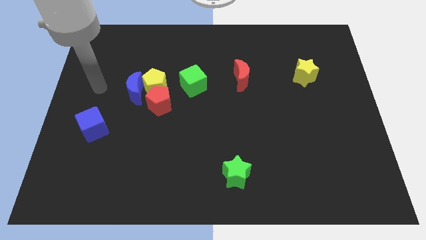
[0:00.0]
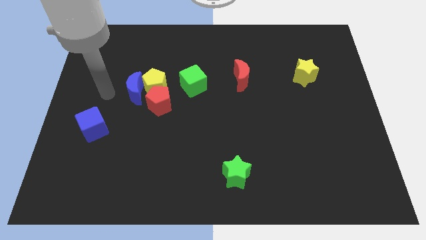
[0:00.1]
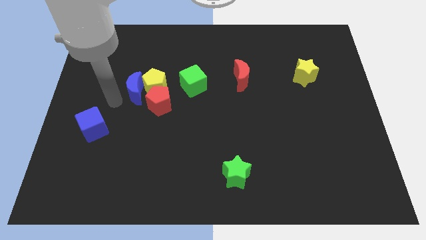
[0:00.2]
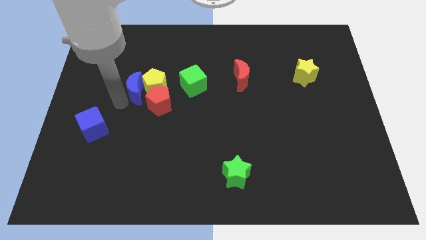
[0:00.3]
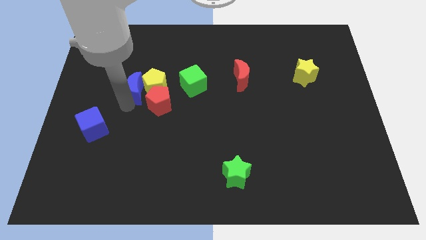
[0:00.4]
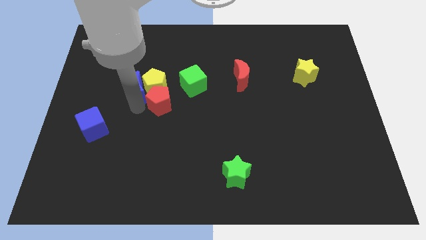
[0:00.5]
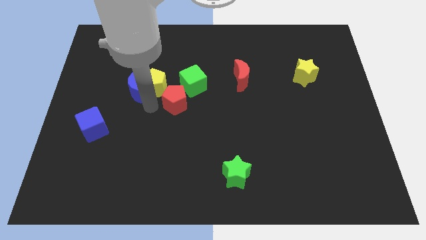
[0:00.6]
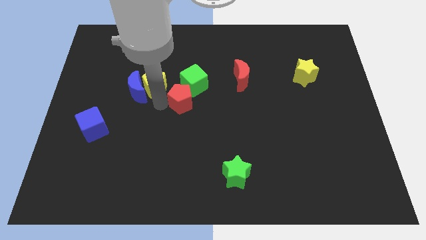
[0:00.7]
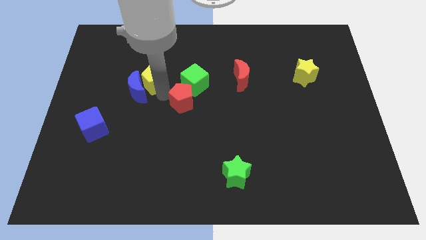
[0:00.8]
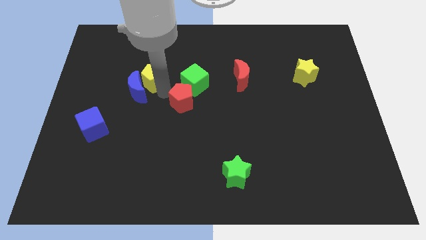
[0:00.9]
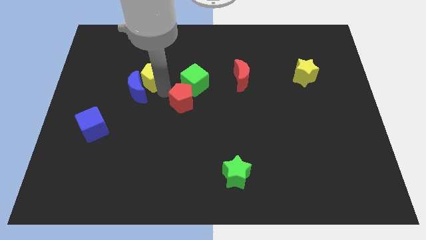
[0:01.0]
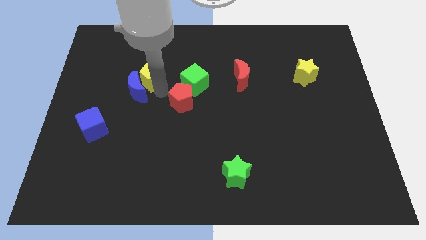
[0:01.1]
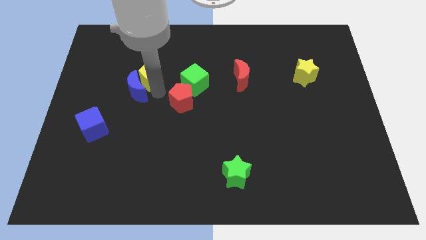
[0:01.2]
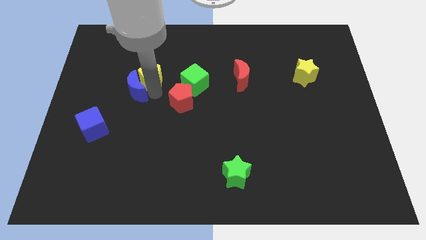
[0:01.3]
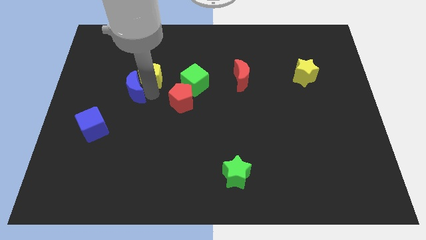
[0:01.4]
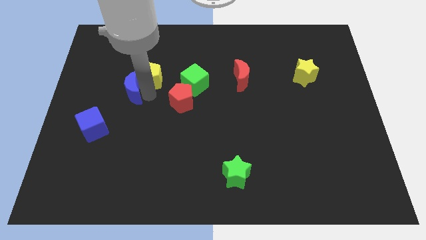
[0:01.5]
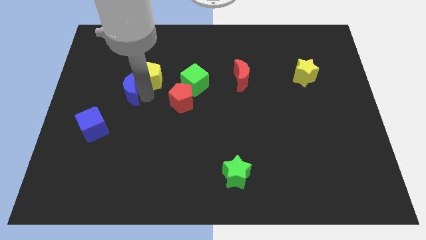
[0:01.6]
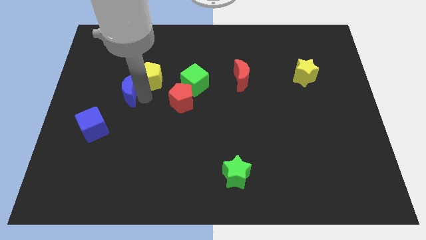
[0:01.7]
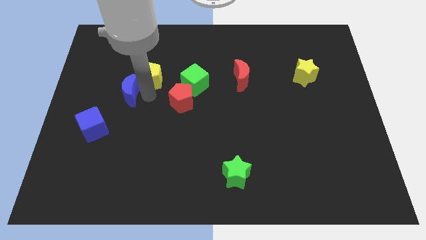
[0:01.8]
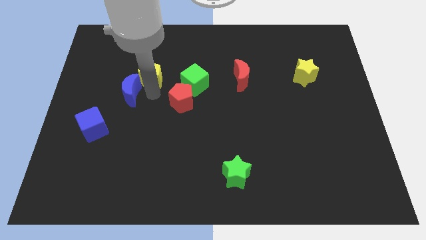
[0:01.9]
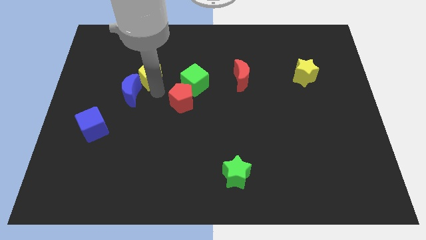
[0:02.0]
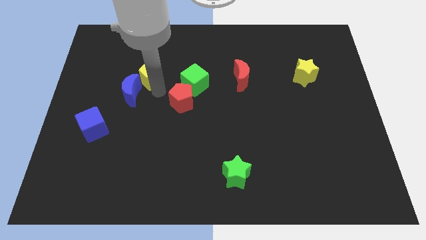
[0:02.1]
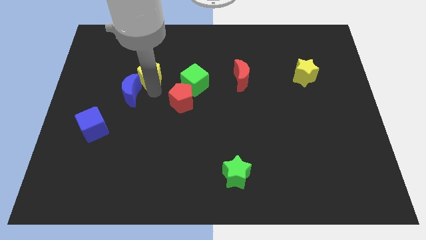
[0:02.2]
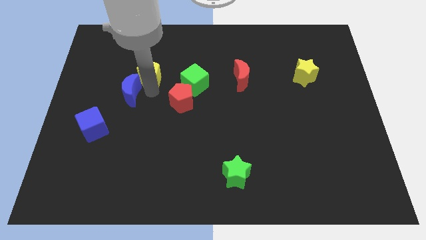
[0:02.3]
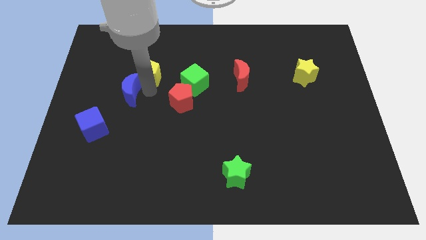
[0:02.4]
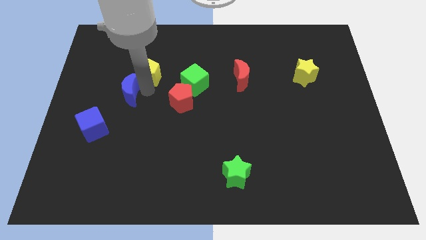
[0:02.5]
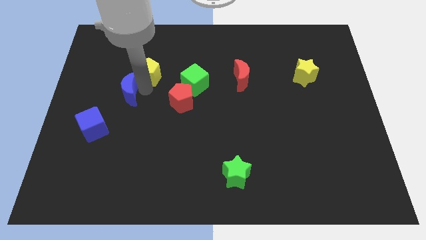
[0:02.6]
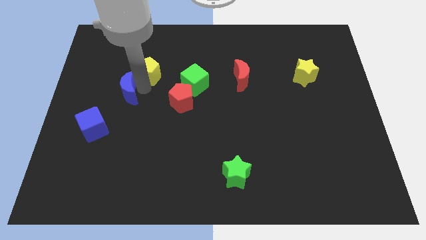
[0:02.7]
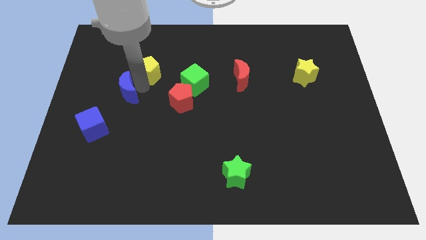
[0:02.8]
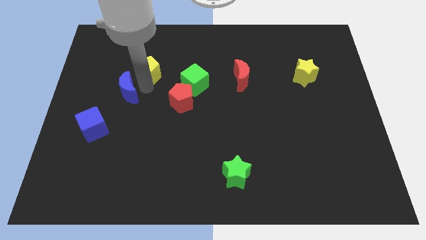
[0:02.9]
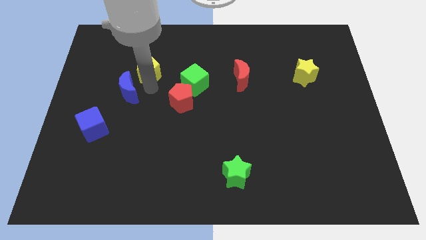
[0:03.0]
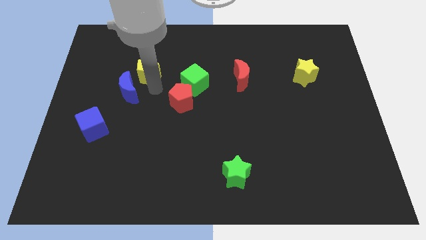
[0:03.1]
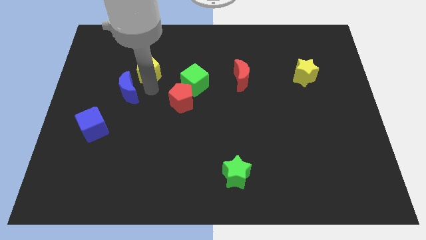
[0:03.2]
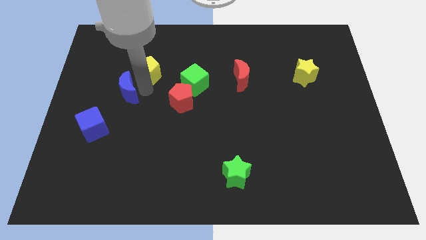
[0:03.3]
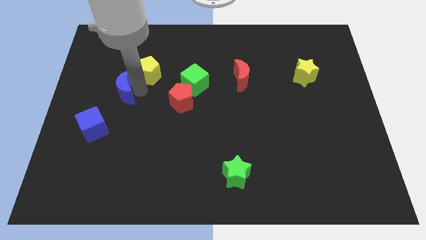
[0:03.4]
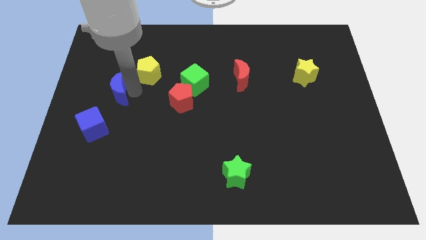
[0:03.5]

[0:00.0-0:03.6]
separate the blue moon from the yellow pentagon and red pentagon

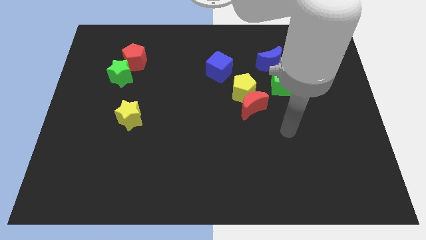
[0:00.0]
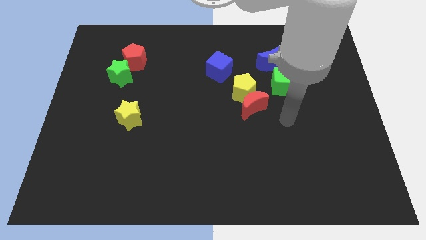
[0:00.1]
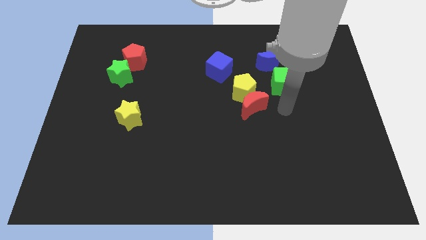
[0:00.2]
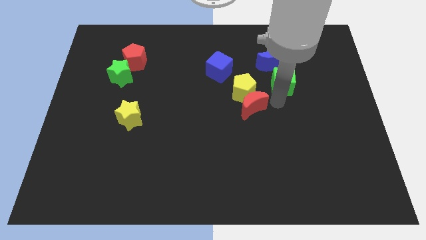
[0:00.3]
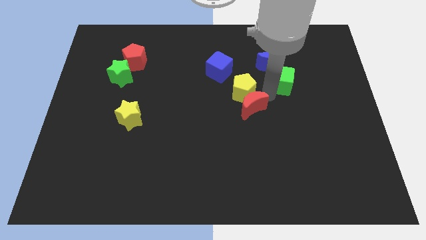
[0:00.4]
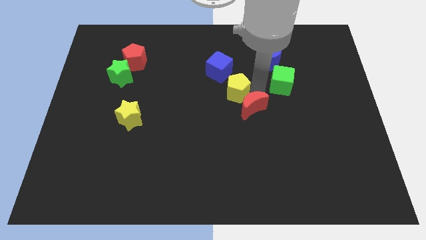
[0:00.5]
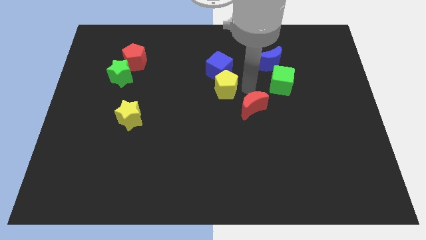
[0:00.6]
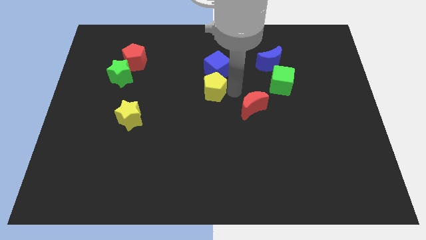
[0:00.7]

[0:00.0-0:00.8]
pull the red moon apart from the yellow pentagon

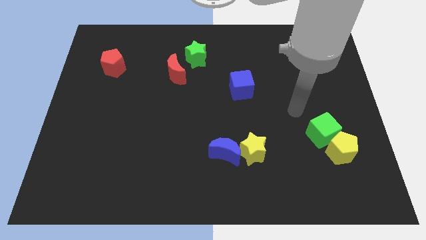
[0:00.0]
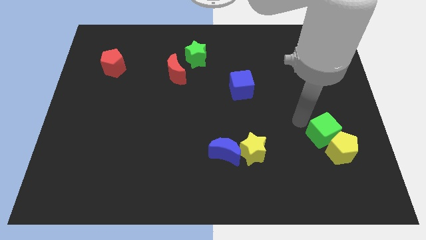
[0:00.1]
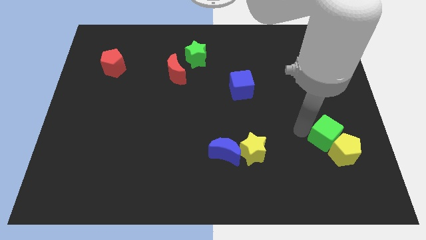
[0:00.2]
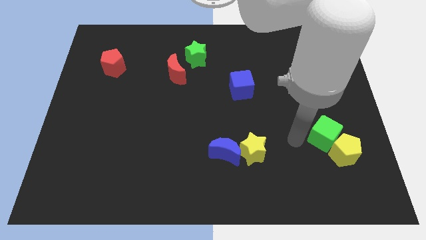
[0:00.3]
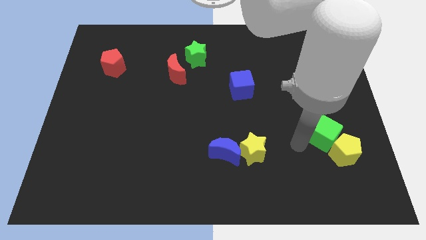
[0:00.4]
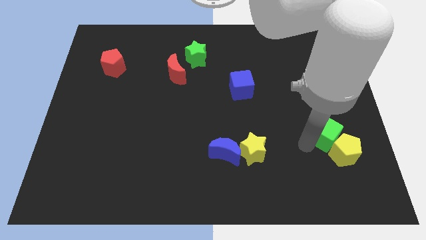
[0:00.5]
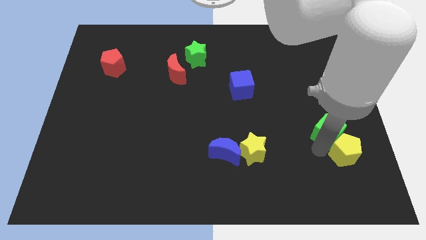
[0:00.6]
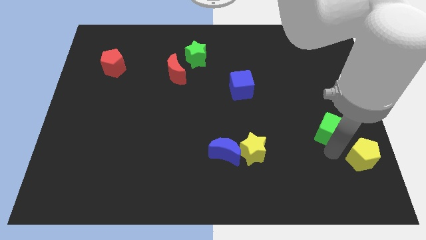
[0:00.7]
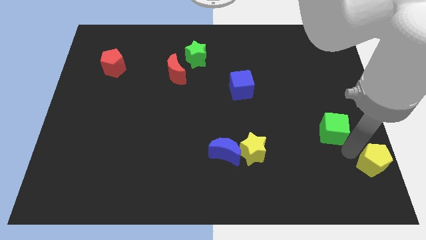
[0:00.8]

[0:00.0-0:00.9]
separate the green cube from the yellow pentagon

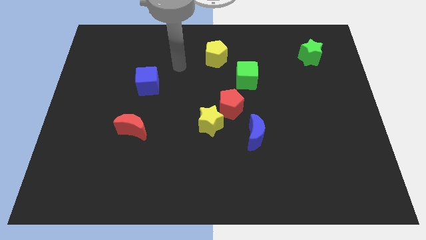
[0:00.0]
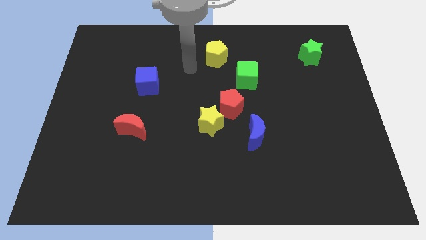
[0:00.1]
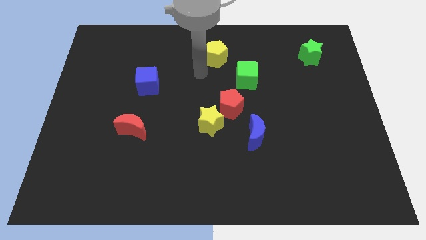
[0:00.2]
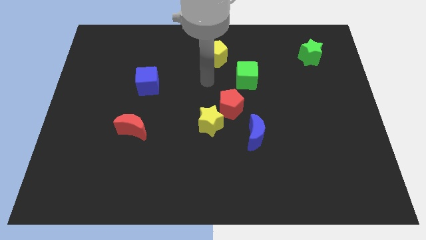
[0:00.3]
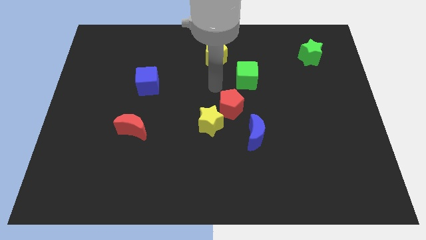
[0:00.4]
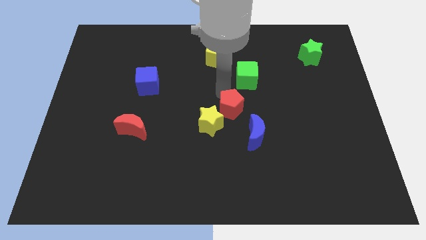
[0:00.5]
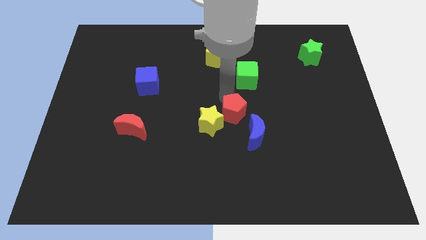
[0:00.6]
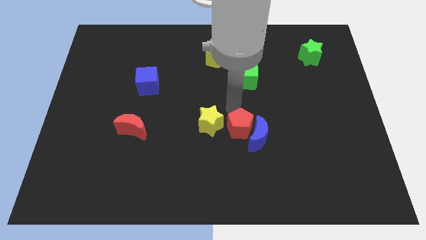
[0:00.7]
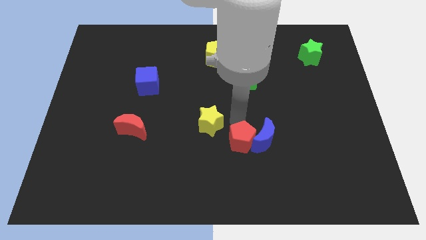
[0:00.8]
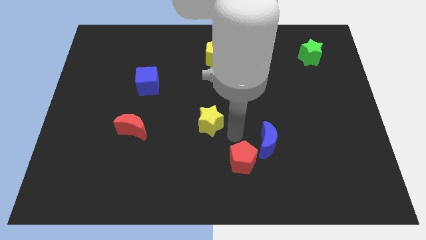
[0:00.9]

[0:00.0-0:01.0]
move the yellow star away from the red pentagon

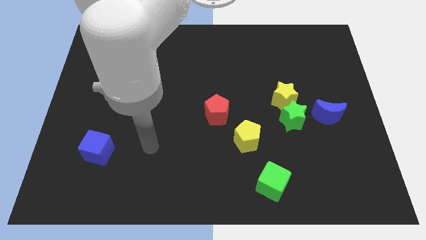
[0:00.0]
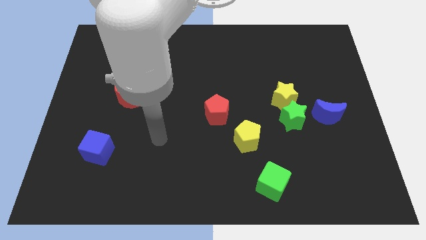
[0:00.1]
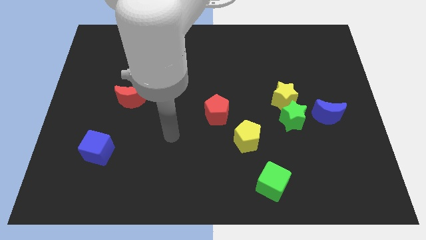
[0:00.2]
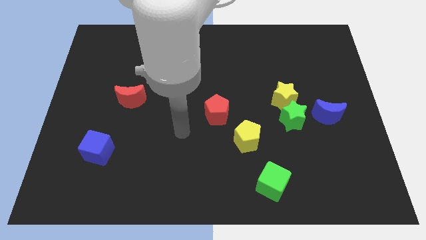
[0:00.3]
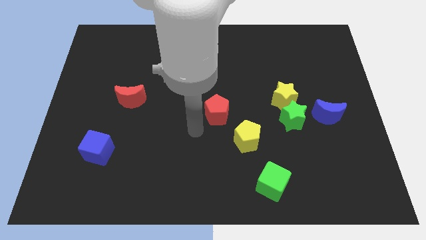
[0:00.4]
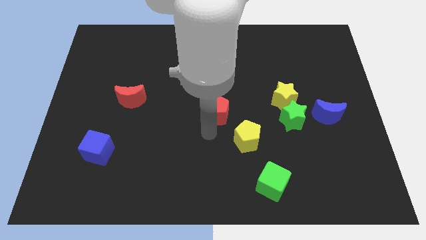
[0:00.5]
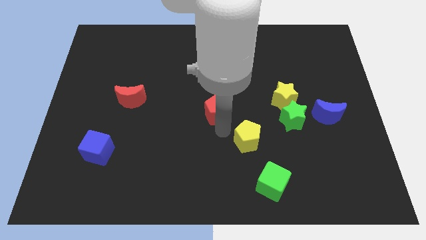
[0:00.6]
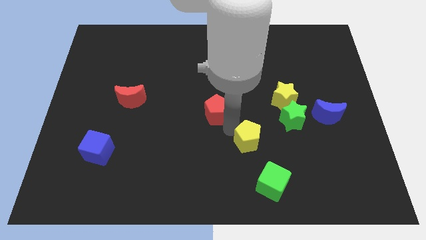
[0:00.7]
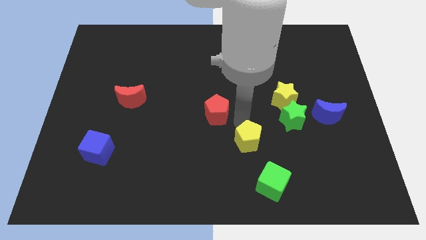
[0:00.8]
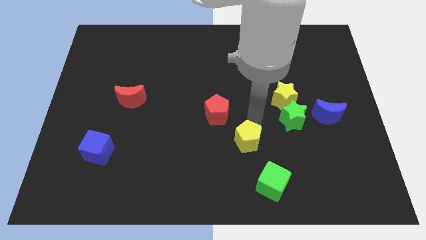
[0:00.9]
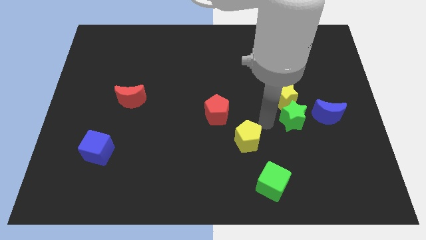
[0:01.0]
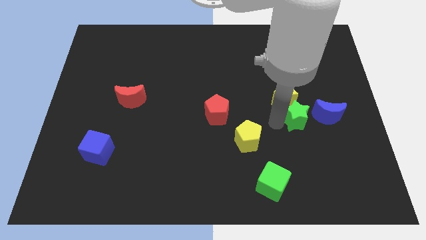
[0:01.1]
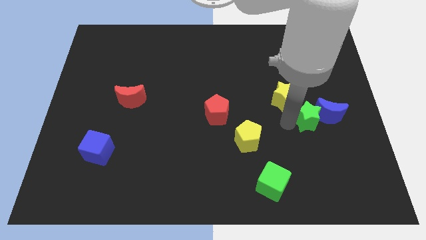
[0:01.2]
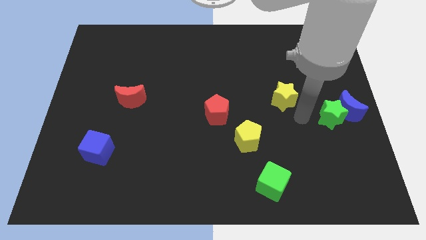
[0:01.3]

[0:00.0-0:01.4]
separate the yellow star from the green star

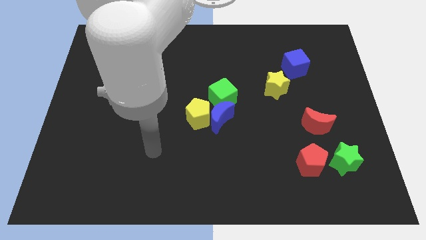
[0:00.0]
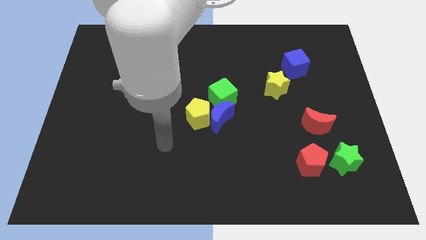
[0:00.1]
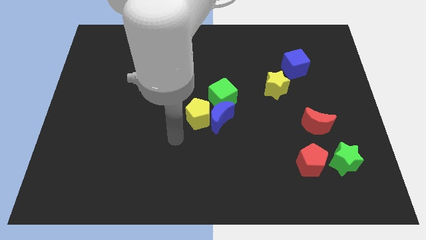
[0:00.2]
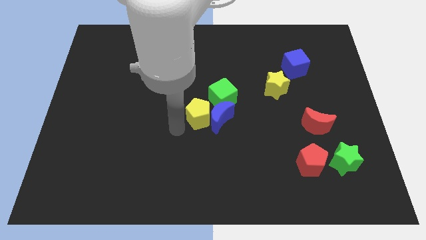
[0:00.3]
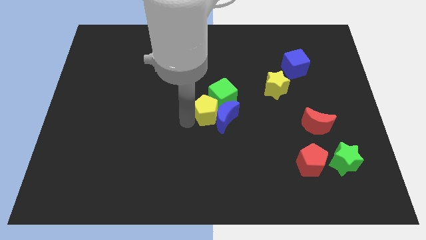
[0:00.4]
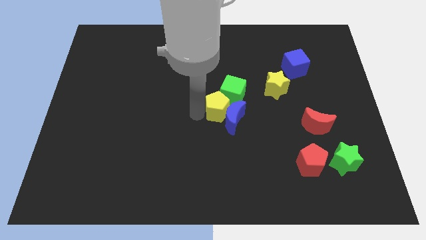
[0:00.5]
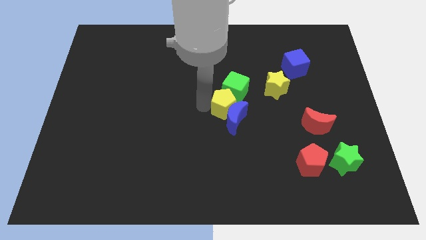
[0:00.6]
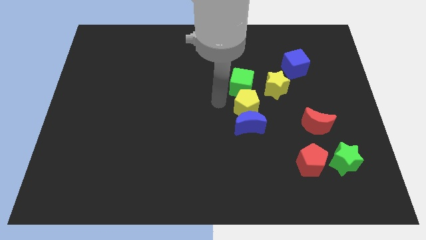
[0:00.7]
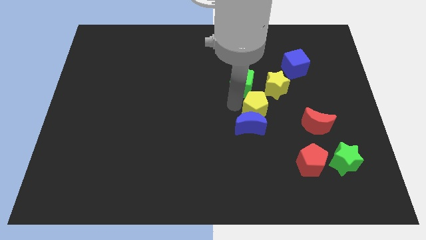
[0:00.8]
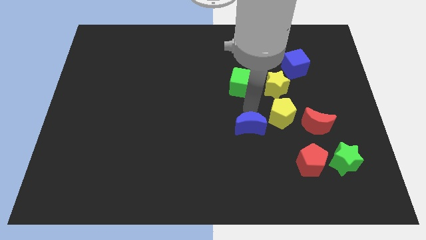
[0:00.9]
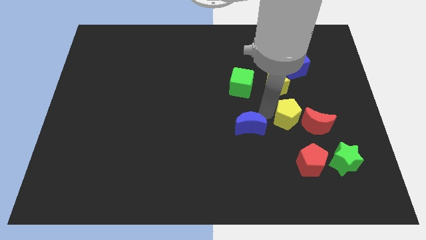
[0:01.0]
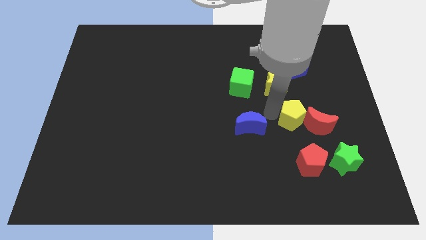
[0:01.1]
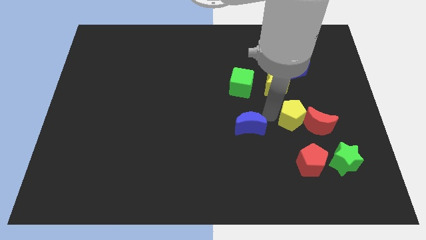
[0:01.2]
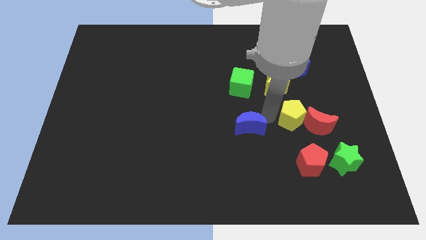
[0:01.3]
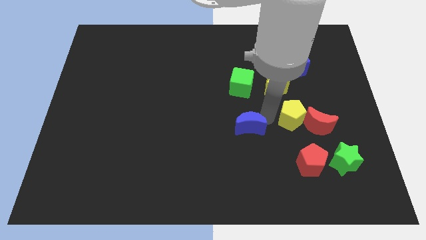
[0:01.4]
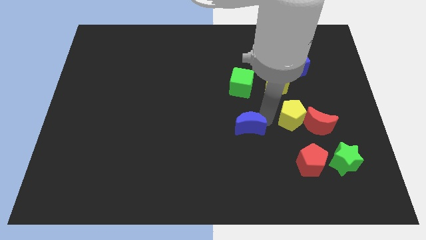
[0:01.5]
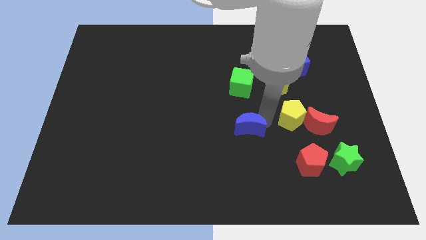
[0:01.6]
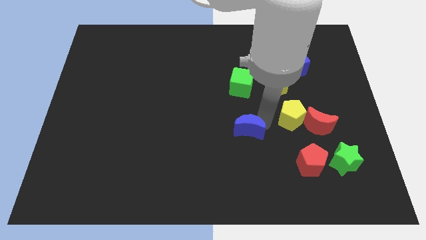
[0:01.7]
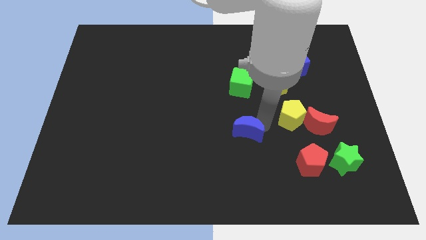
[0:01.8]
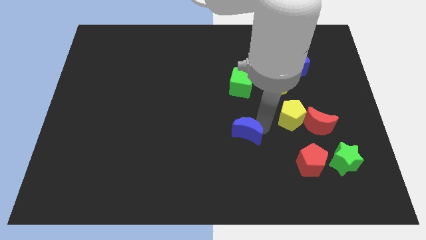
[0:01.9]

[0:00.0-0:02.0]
separate the blue moon from the yellow pentagon and green cube
